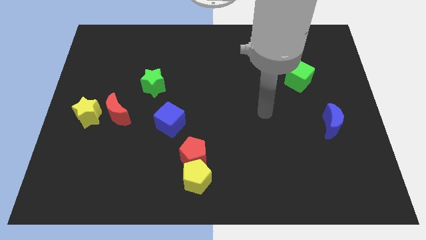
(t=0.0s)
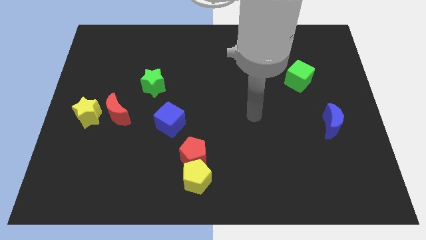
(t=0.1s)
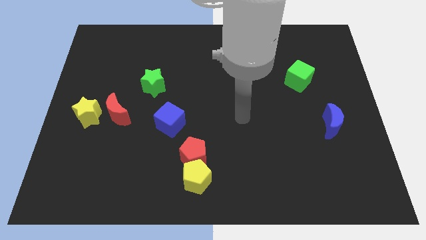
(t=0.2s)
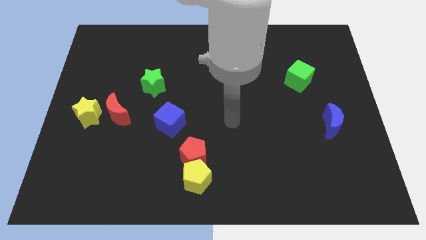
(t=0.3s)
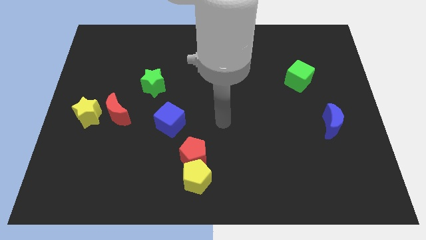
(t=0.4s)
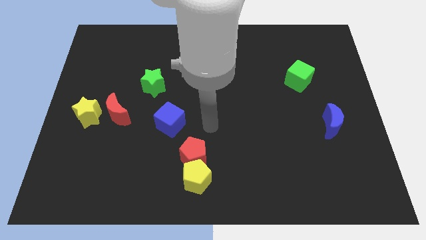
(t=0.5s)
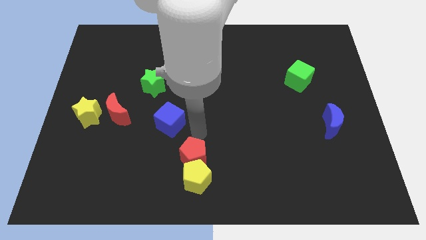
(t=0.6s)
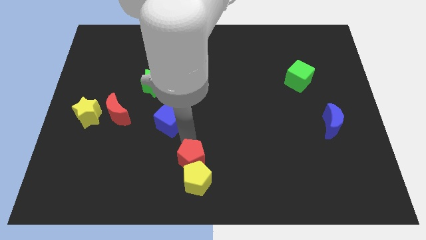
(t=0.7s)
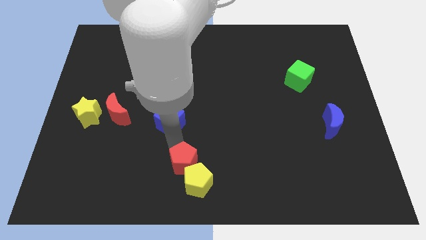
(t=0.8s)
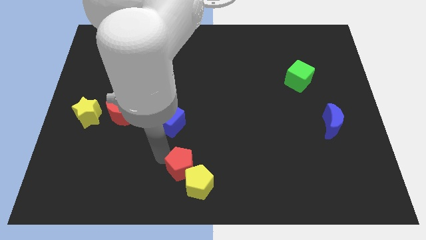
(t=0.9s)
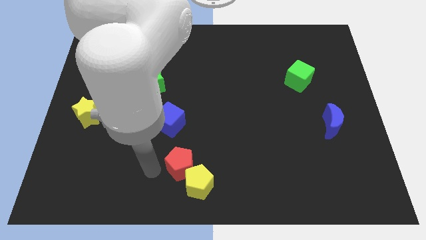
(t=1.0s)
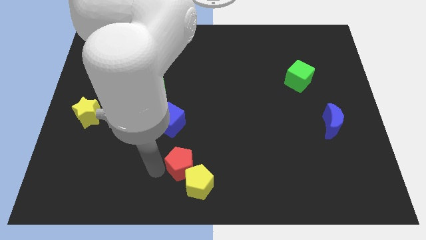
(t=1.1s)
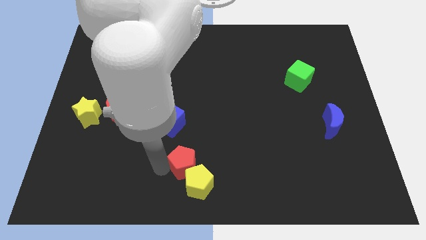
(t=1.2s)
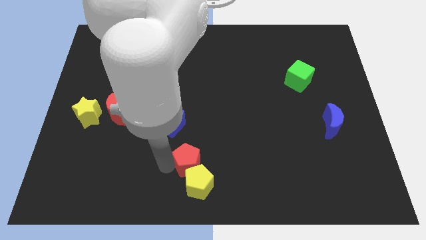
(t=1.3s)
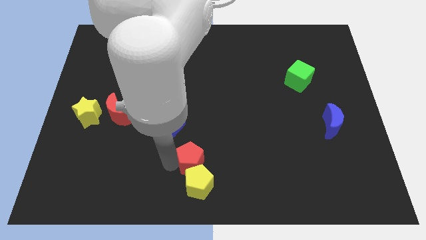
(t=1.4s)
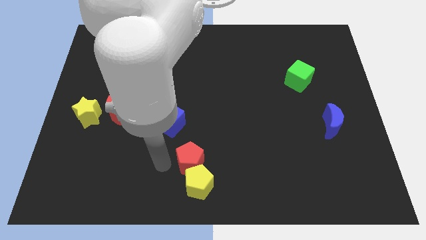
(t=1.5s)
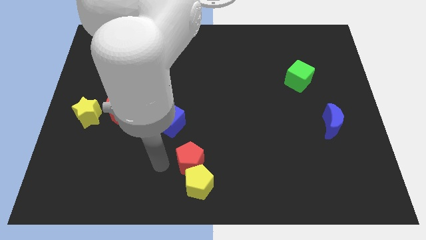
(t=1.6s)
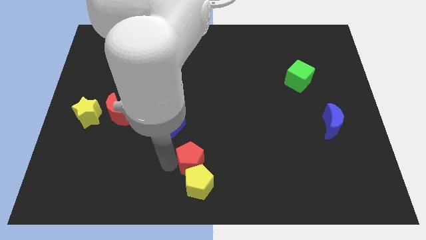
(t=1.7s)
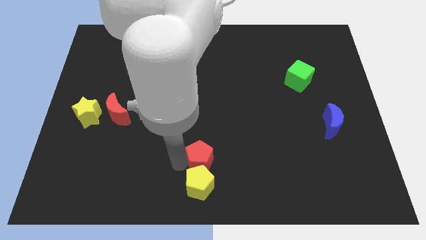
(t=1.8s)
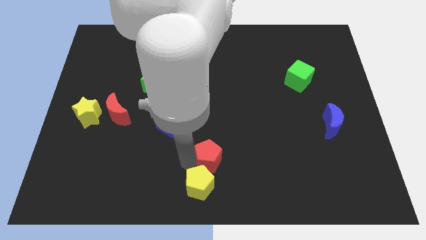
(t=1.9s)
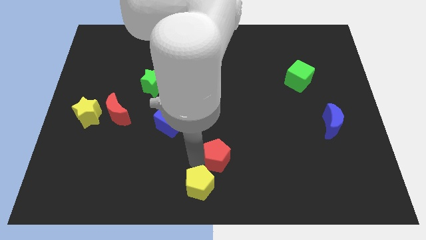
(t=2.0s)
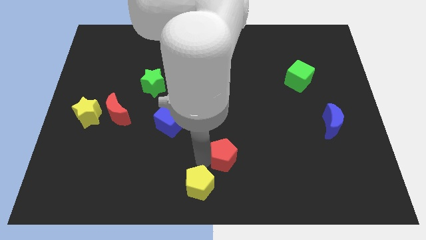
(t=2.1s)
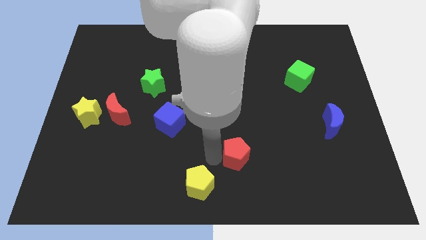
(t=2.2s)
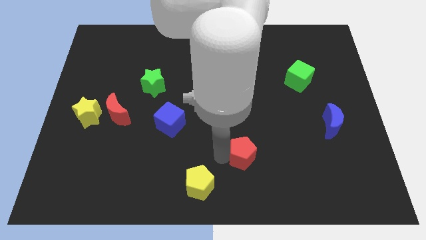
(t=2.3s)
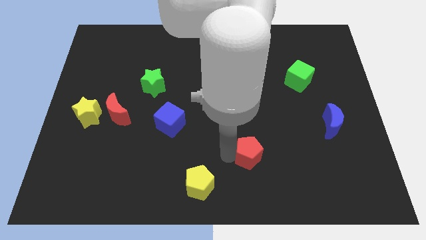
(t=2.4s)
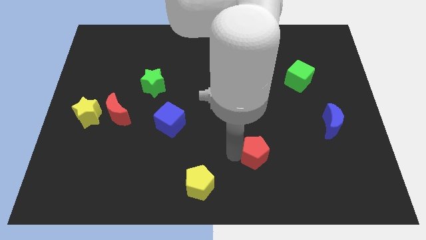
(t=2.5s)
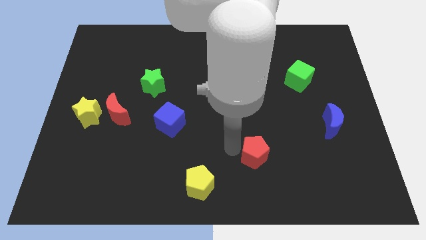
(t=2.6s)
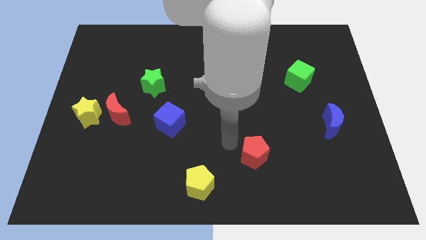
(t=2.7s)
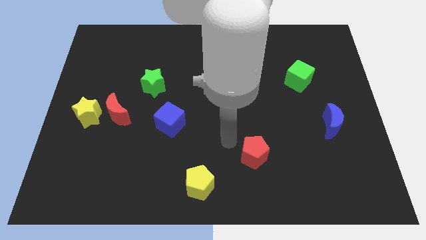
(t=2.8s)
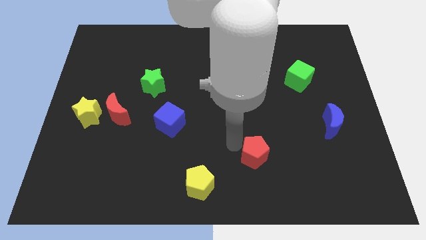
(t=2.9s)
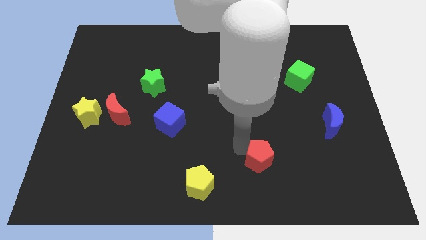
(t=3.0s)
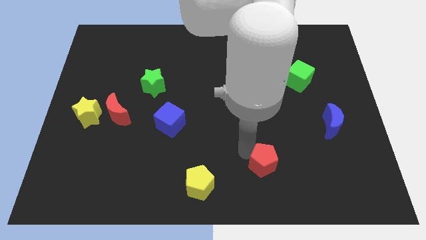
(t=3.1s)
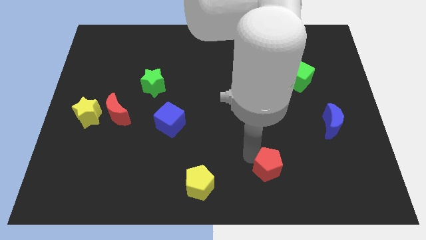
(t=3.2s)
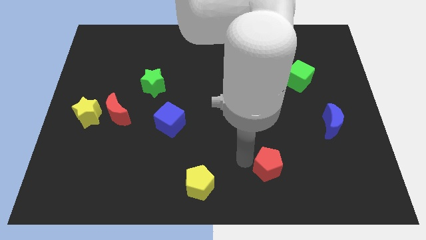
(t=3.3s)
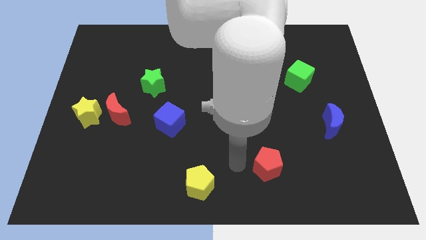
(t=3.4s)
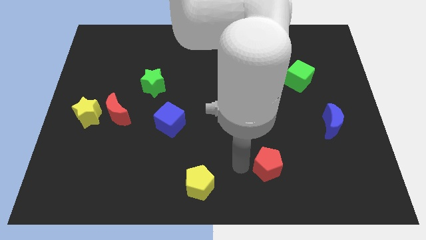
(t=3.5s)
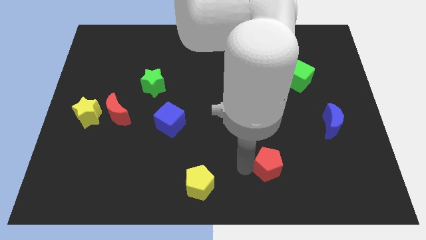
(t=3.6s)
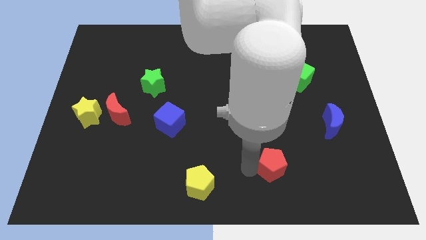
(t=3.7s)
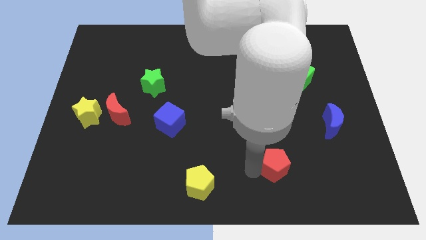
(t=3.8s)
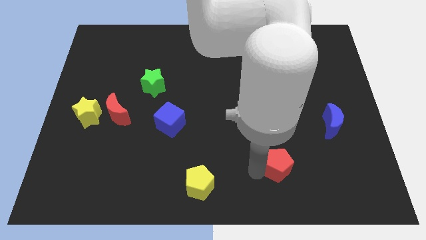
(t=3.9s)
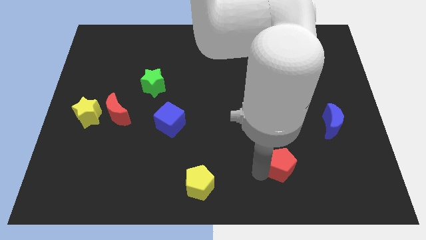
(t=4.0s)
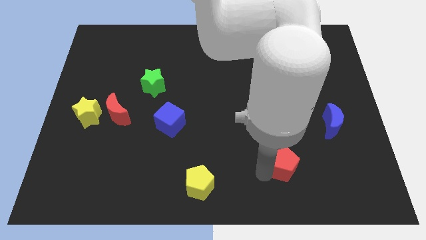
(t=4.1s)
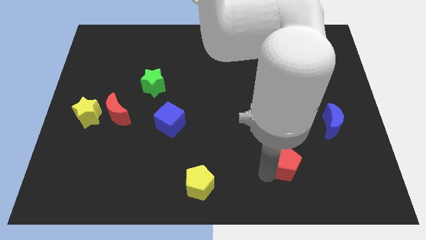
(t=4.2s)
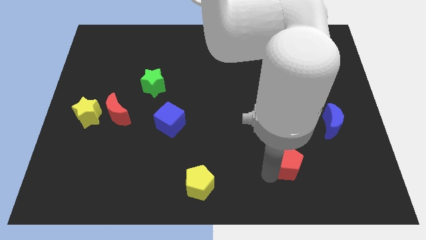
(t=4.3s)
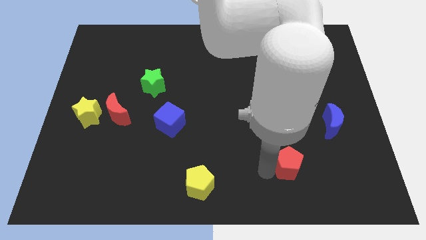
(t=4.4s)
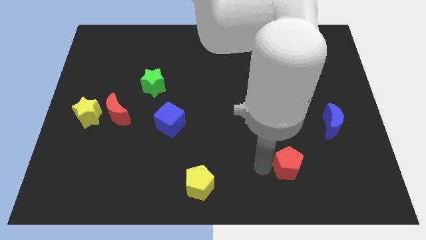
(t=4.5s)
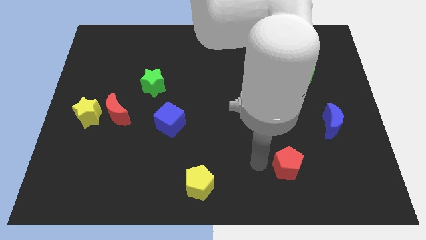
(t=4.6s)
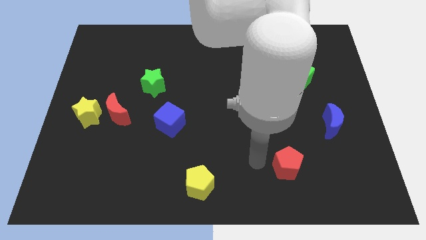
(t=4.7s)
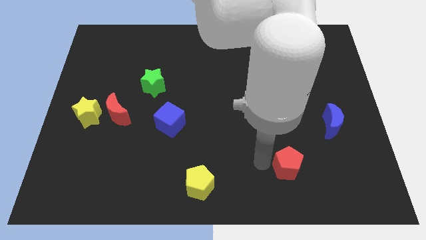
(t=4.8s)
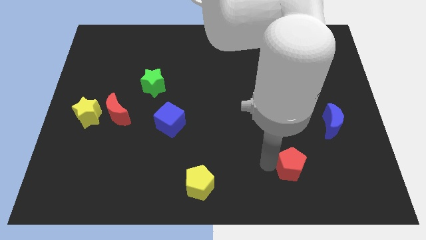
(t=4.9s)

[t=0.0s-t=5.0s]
move the red pentagon right

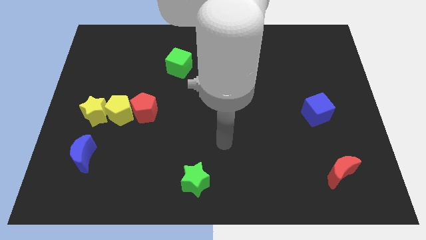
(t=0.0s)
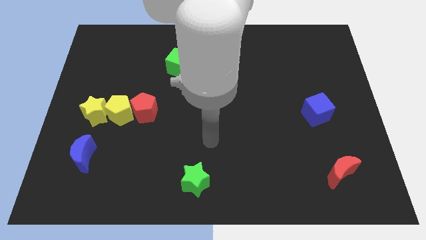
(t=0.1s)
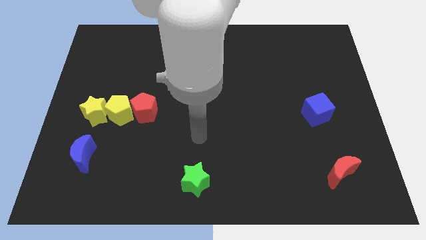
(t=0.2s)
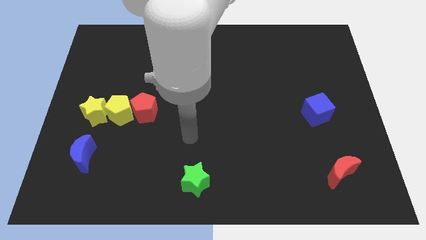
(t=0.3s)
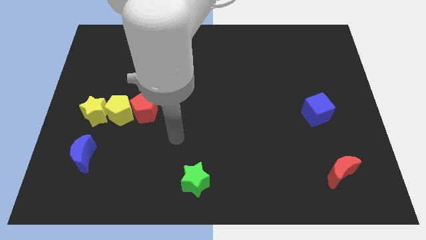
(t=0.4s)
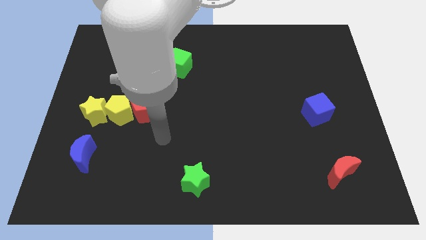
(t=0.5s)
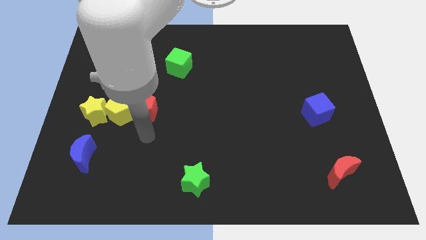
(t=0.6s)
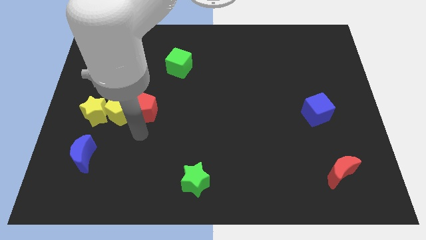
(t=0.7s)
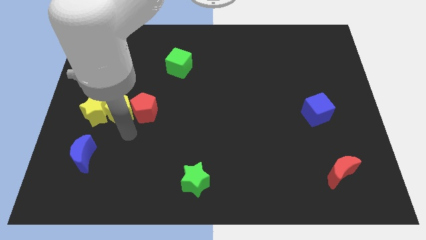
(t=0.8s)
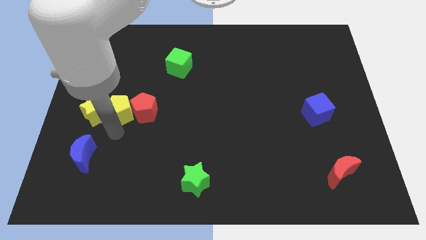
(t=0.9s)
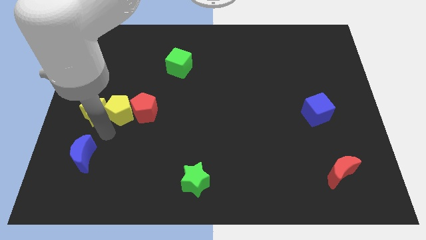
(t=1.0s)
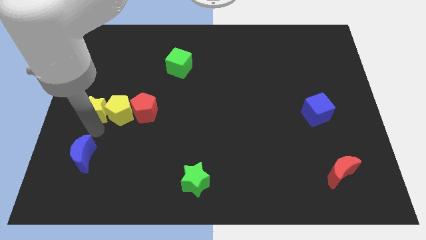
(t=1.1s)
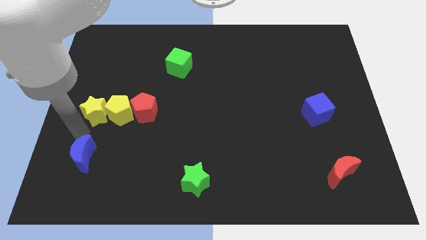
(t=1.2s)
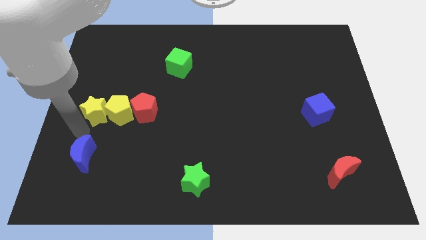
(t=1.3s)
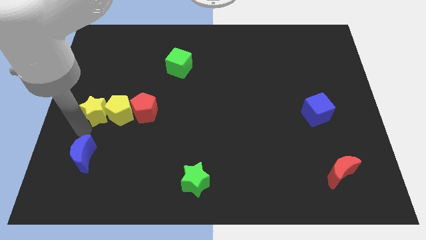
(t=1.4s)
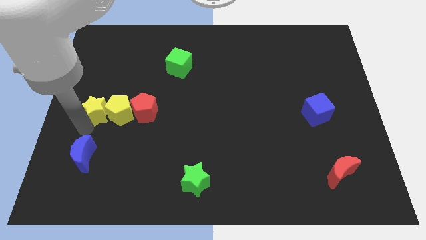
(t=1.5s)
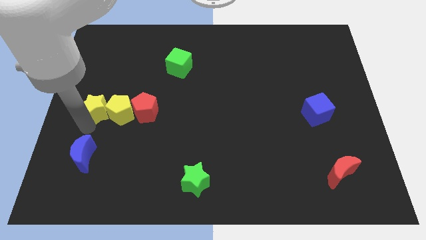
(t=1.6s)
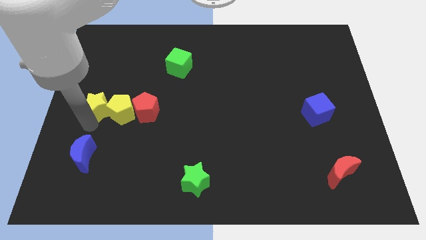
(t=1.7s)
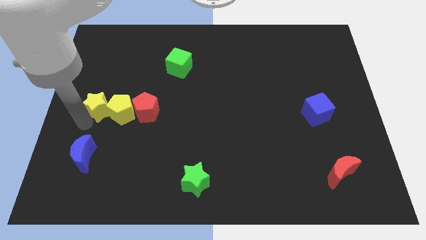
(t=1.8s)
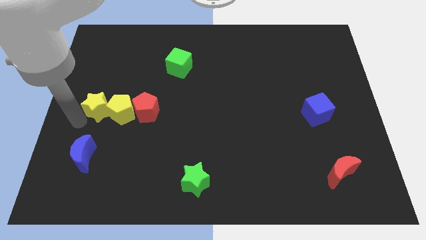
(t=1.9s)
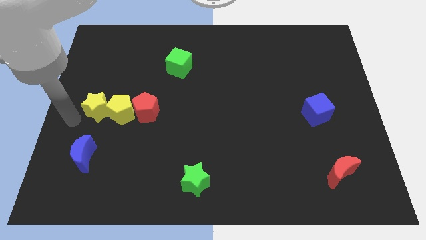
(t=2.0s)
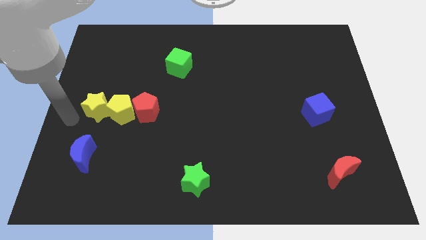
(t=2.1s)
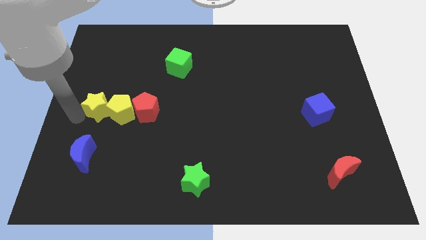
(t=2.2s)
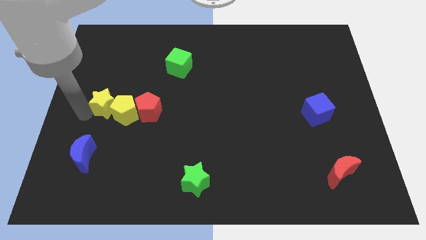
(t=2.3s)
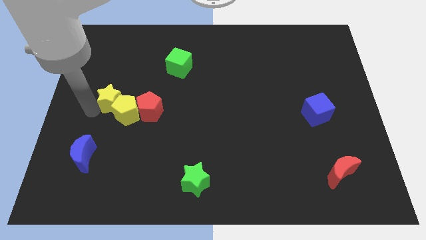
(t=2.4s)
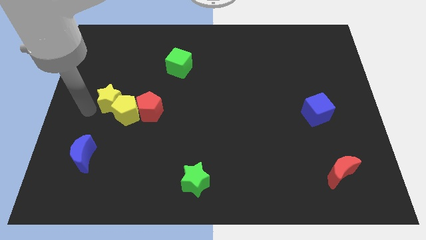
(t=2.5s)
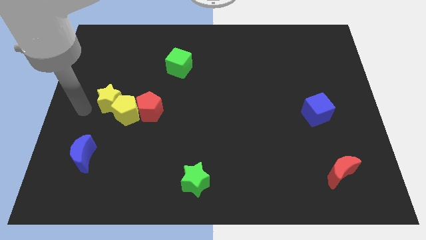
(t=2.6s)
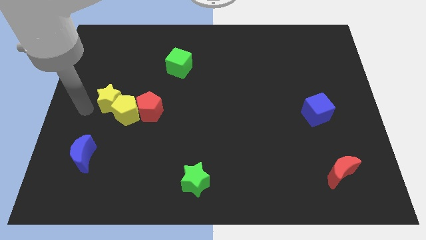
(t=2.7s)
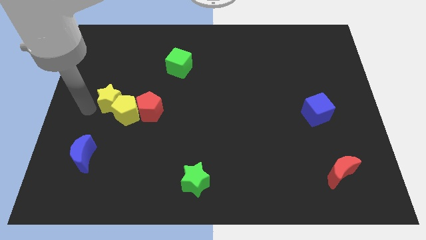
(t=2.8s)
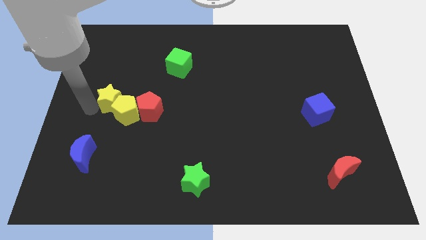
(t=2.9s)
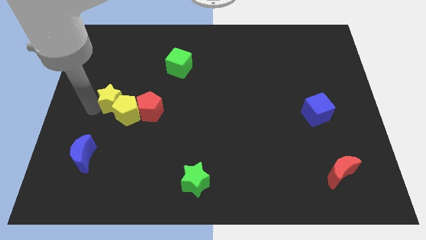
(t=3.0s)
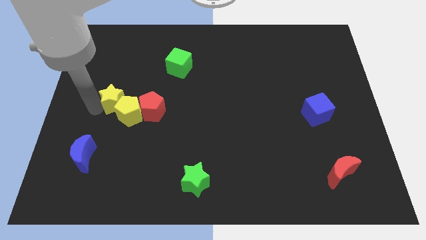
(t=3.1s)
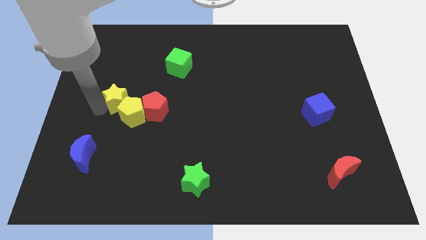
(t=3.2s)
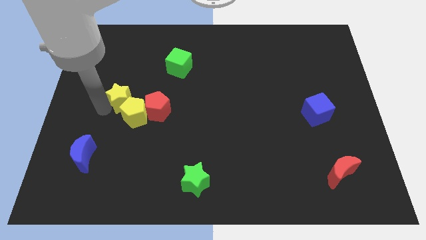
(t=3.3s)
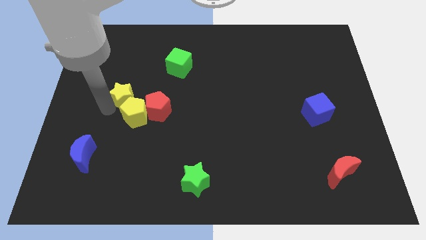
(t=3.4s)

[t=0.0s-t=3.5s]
slightly push the yellow star up and right diagonally
